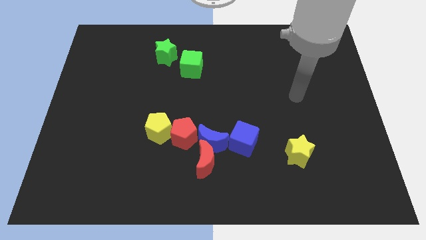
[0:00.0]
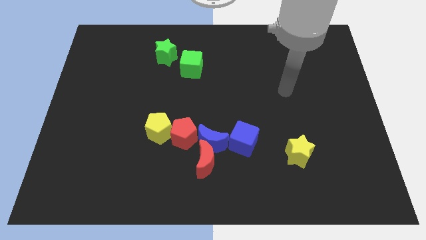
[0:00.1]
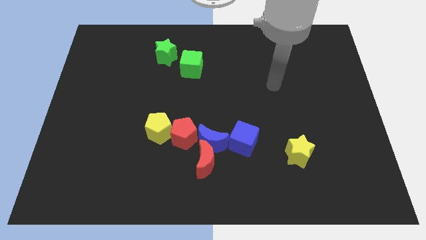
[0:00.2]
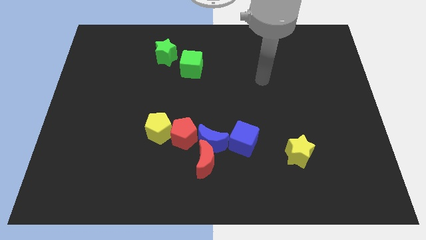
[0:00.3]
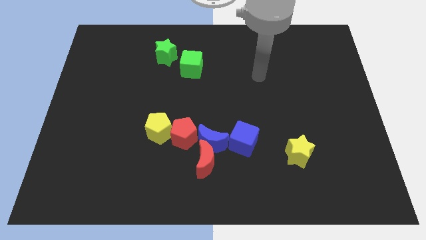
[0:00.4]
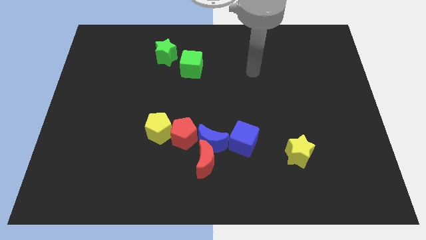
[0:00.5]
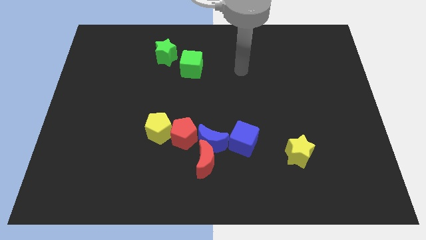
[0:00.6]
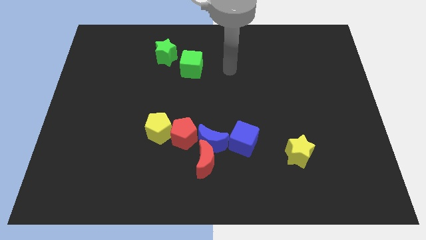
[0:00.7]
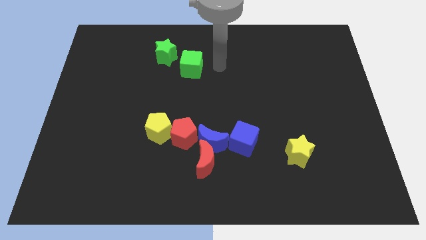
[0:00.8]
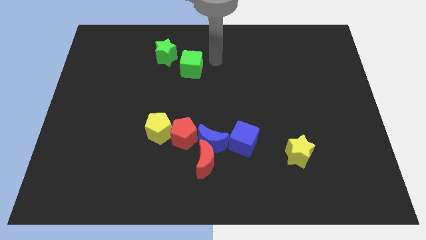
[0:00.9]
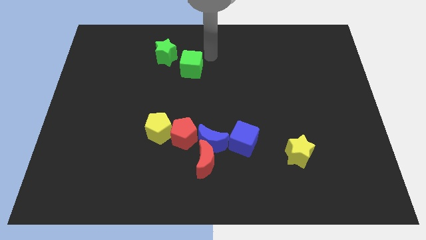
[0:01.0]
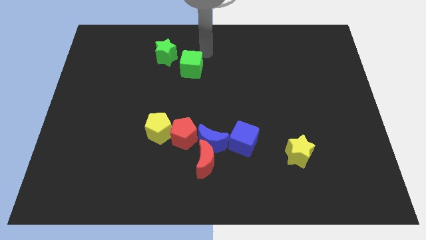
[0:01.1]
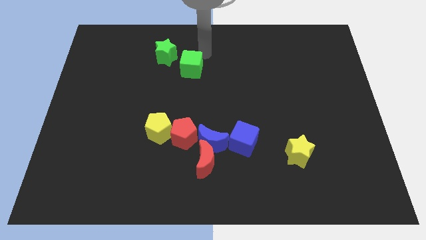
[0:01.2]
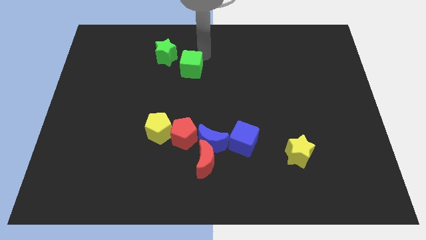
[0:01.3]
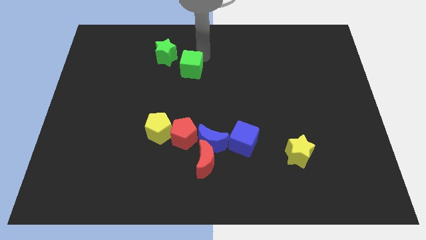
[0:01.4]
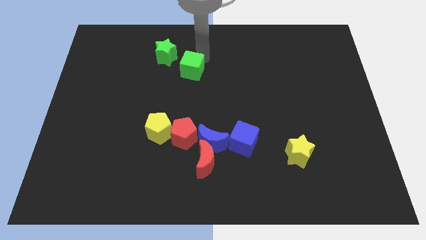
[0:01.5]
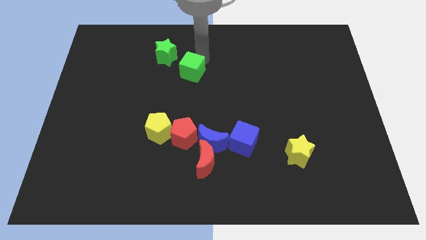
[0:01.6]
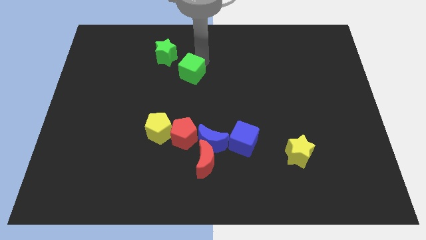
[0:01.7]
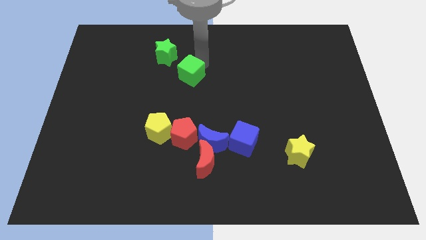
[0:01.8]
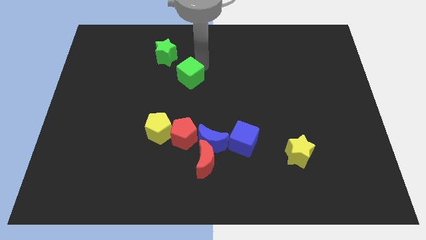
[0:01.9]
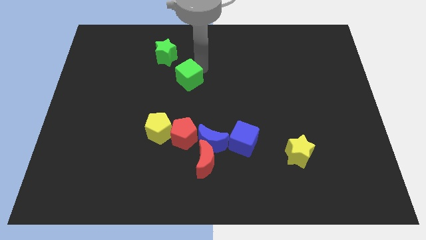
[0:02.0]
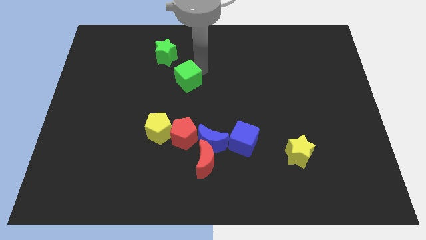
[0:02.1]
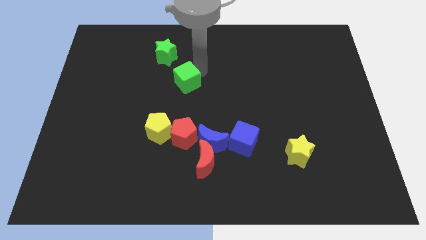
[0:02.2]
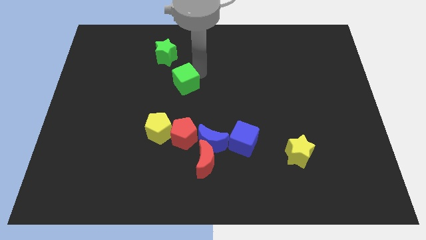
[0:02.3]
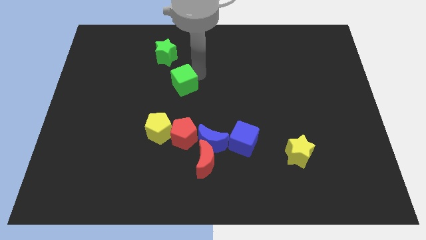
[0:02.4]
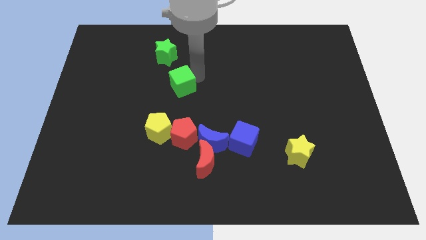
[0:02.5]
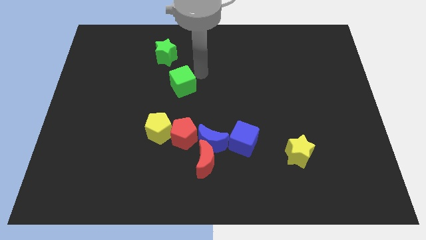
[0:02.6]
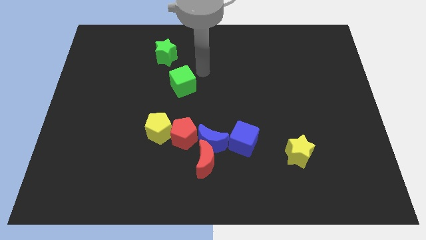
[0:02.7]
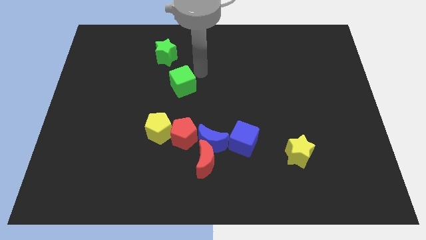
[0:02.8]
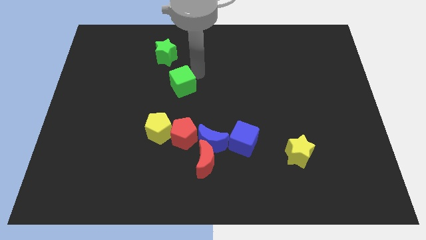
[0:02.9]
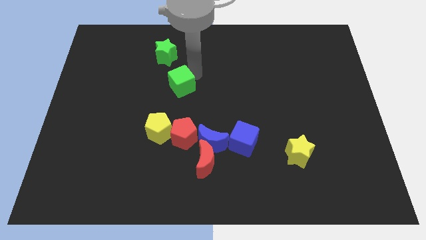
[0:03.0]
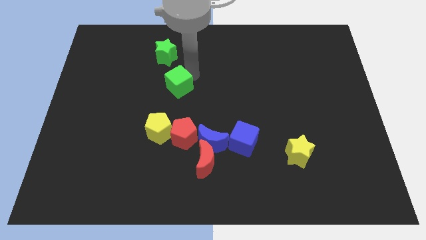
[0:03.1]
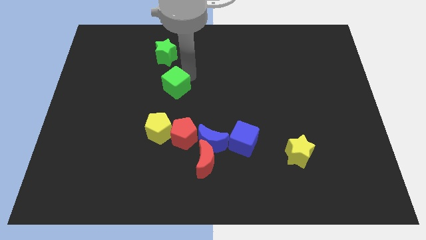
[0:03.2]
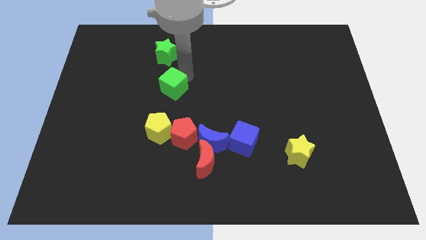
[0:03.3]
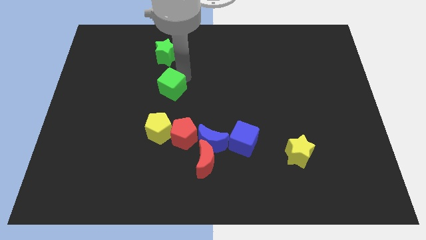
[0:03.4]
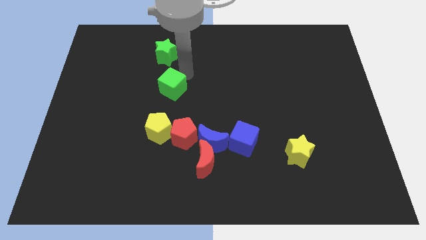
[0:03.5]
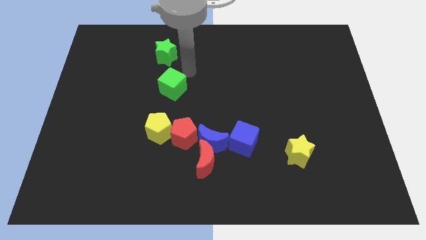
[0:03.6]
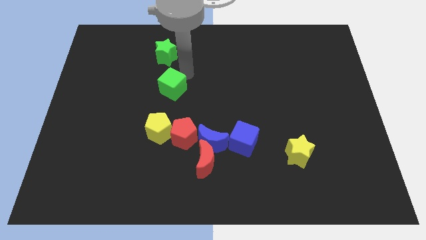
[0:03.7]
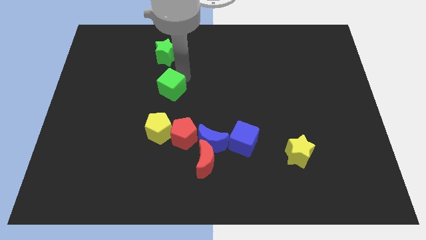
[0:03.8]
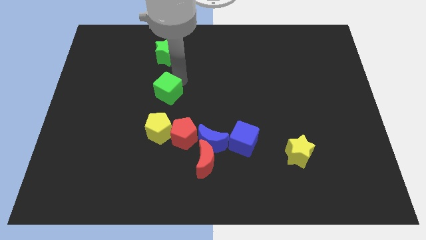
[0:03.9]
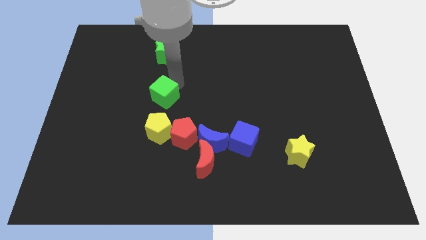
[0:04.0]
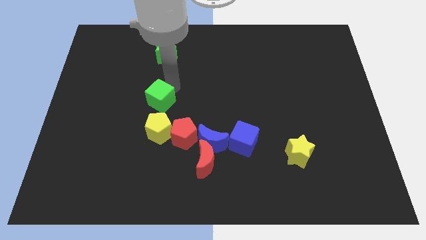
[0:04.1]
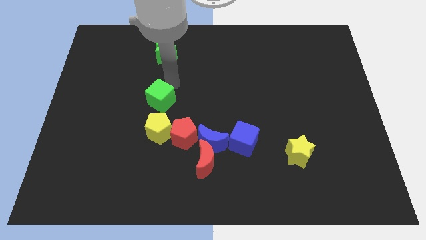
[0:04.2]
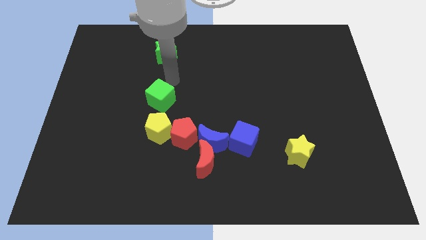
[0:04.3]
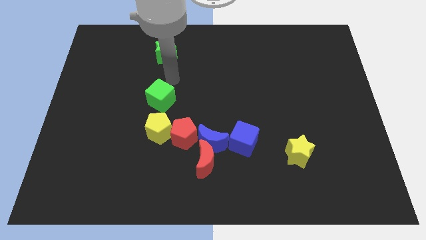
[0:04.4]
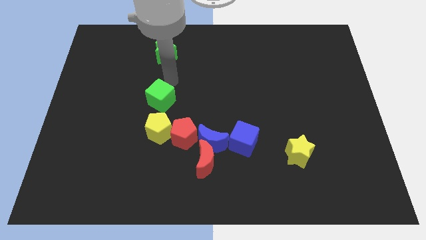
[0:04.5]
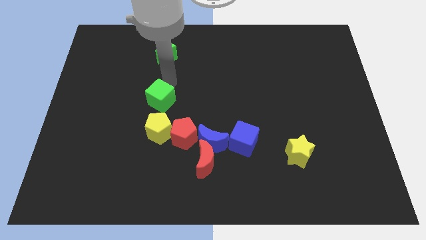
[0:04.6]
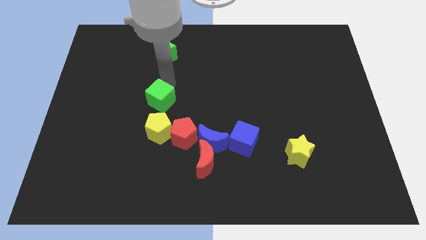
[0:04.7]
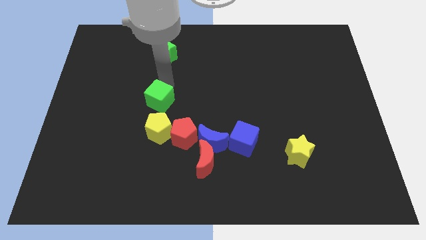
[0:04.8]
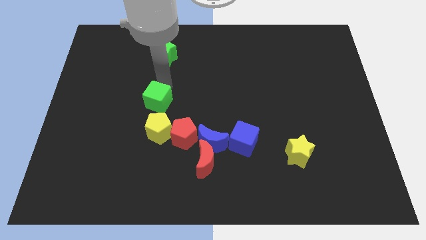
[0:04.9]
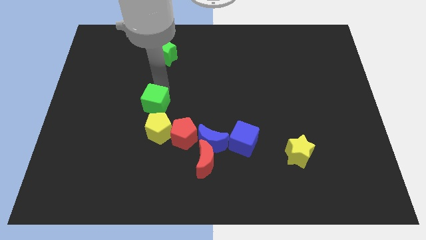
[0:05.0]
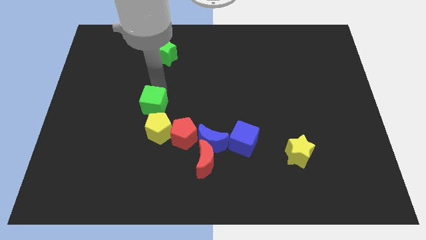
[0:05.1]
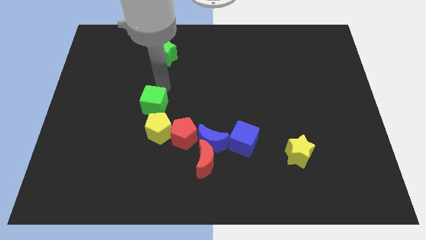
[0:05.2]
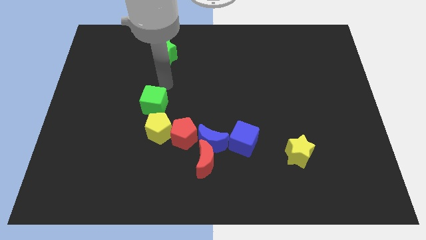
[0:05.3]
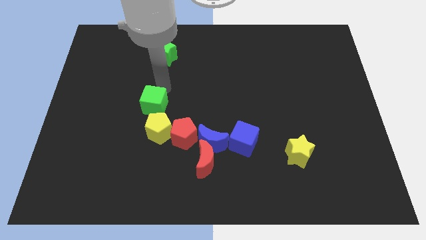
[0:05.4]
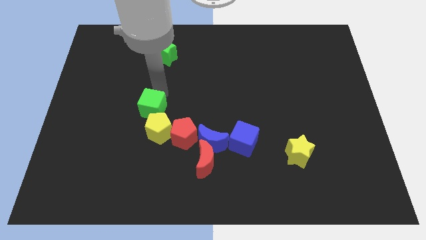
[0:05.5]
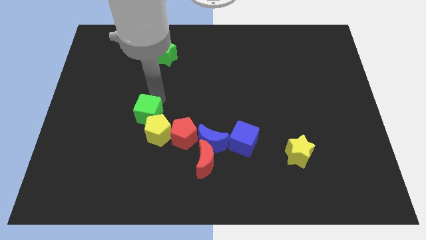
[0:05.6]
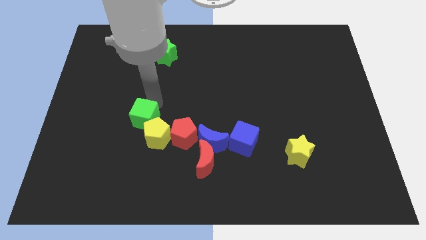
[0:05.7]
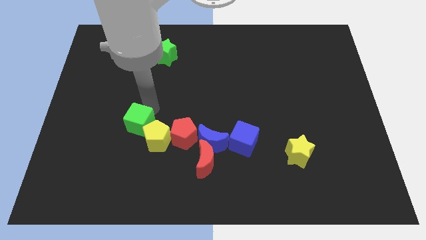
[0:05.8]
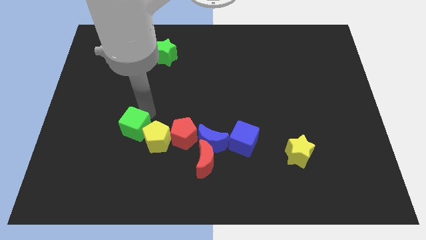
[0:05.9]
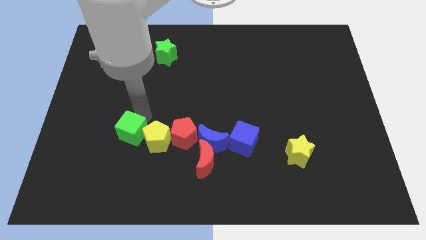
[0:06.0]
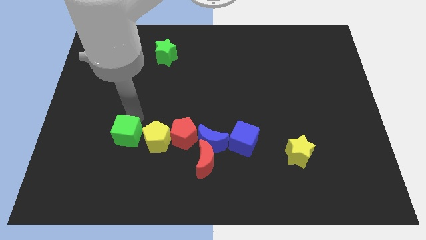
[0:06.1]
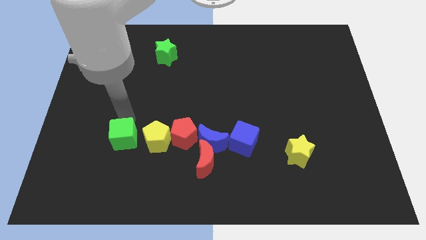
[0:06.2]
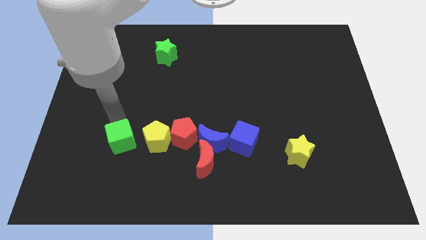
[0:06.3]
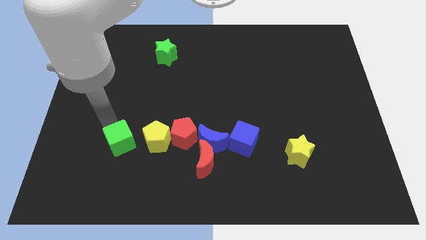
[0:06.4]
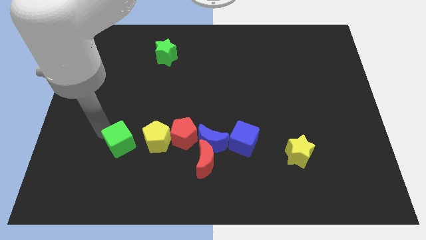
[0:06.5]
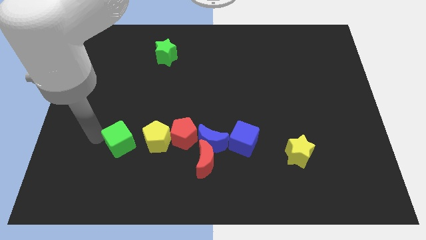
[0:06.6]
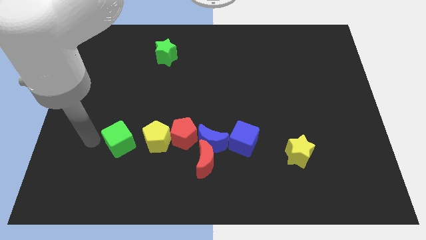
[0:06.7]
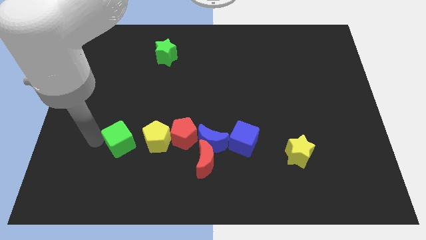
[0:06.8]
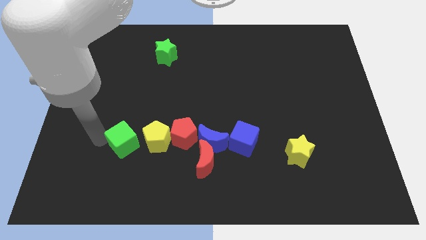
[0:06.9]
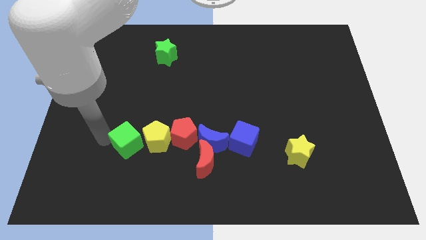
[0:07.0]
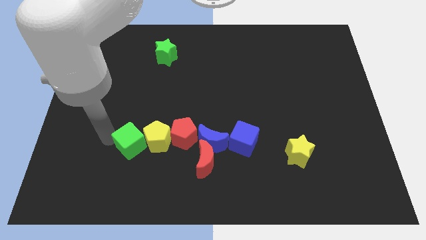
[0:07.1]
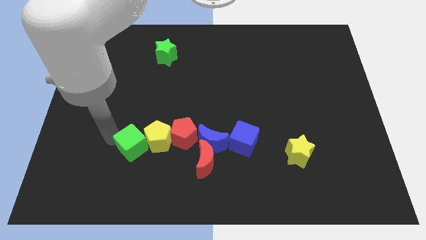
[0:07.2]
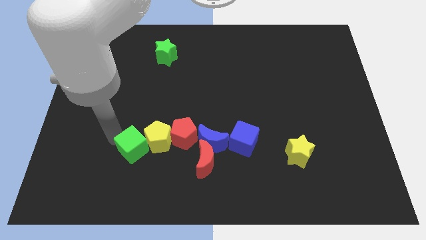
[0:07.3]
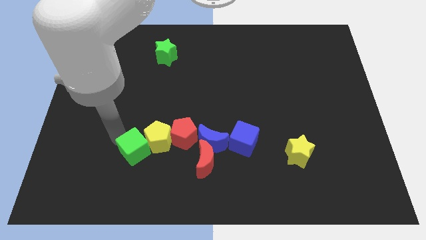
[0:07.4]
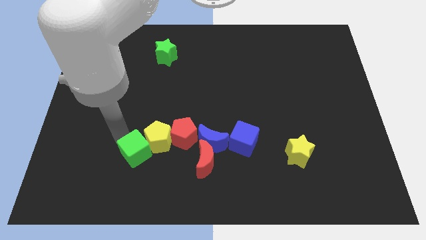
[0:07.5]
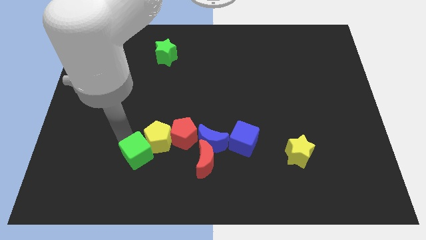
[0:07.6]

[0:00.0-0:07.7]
slide the green cube just left of the blue moon
